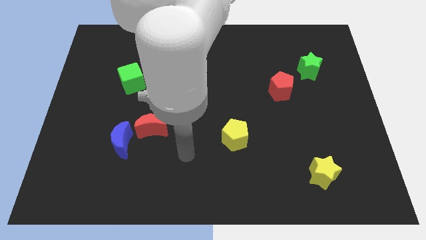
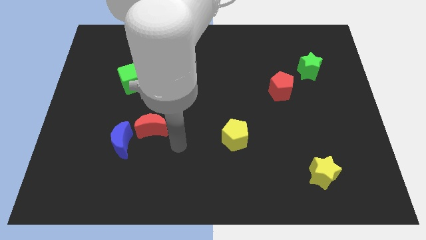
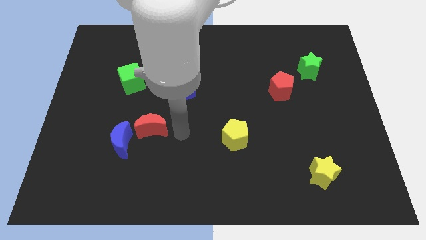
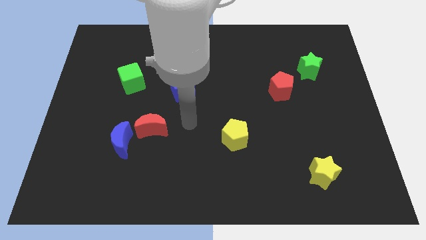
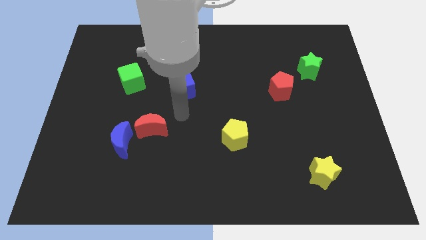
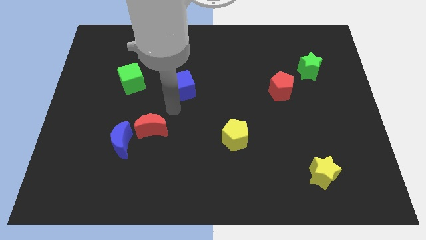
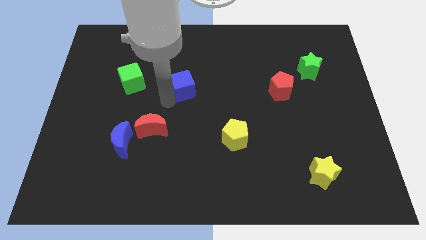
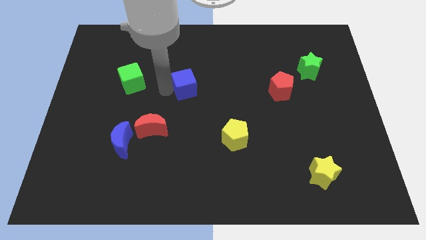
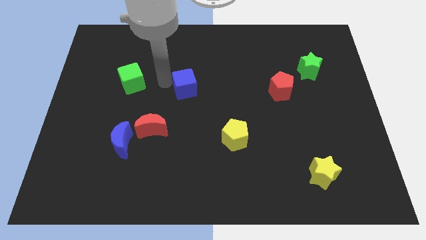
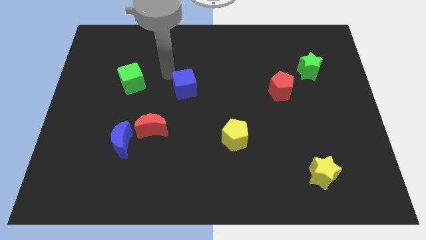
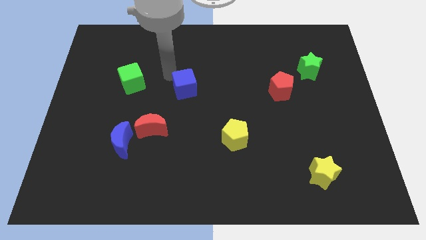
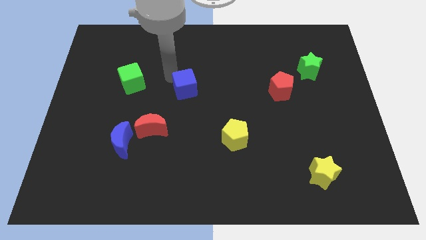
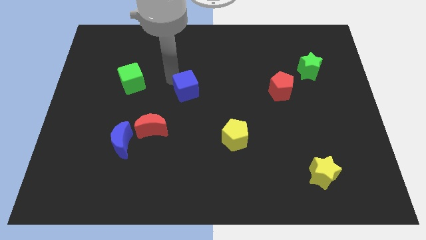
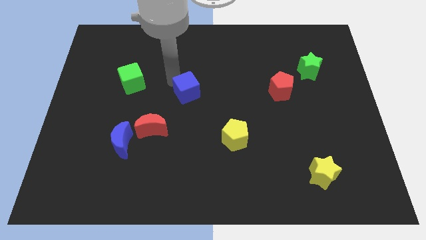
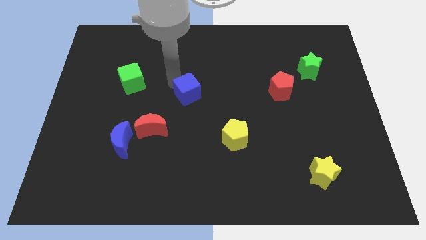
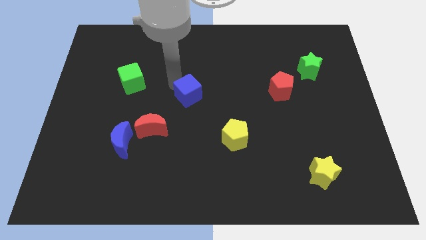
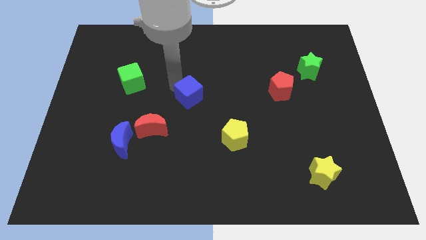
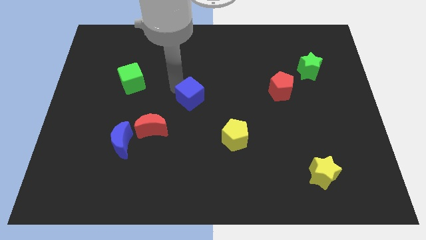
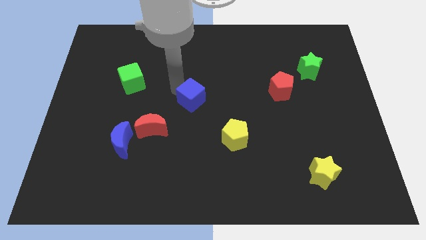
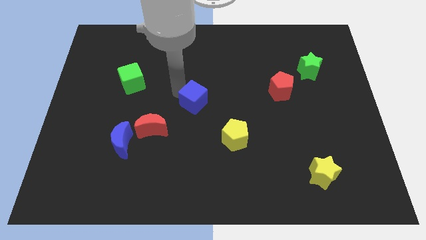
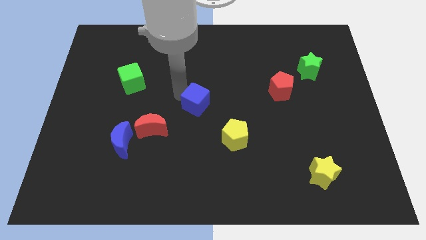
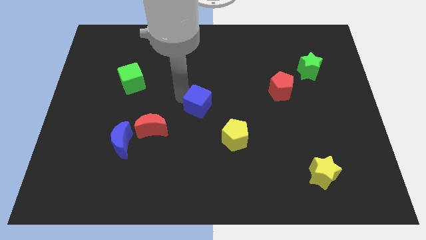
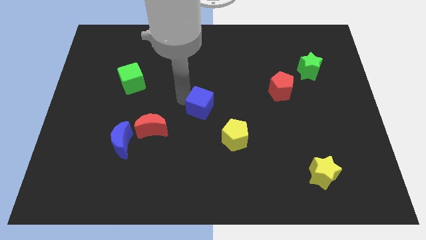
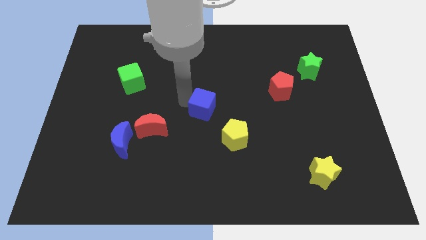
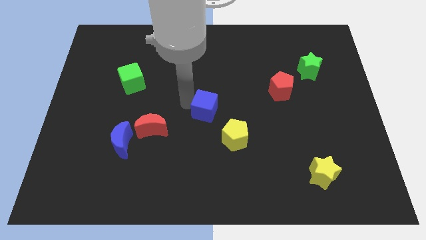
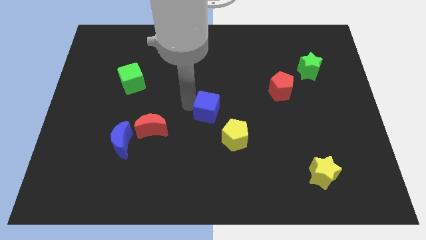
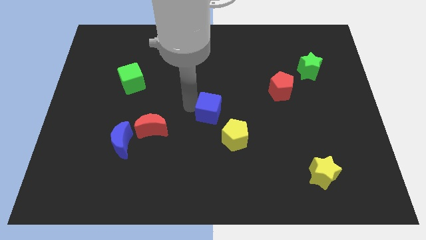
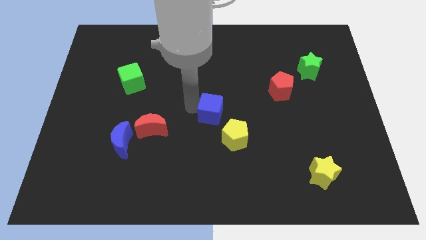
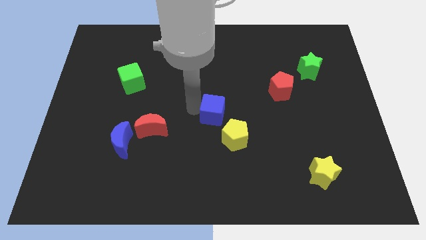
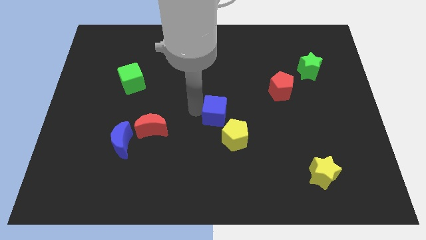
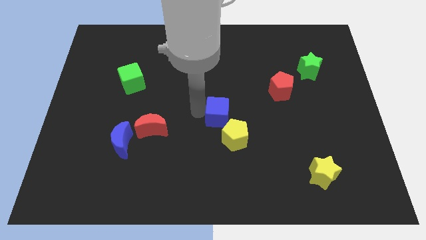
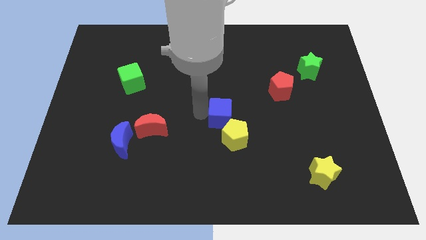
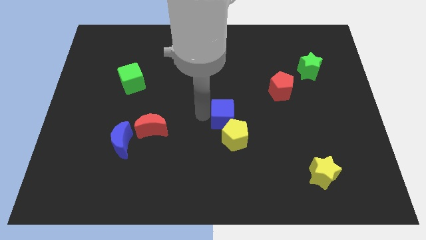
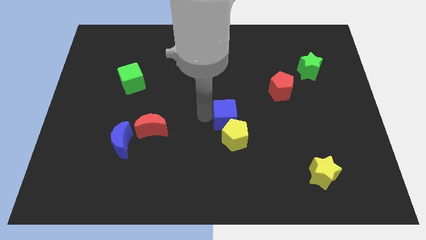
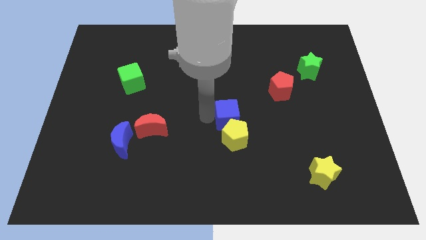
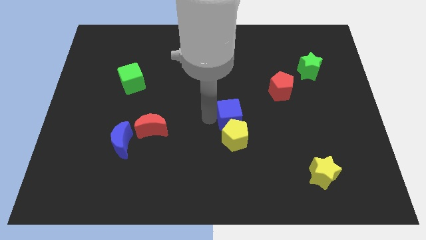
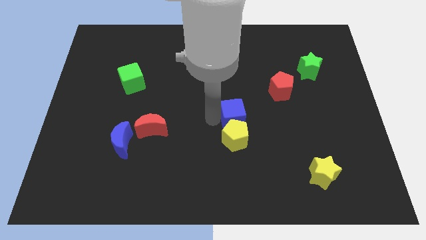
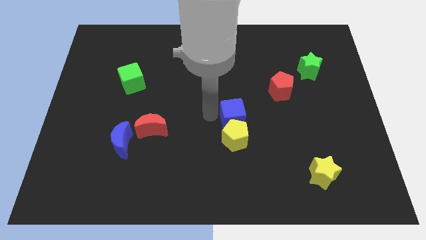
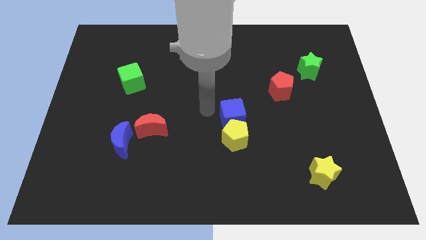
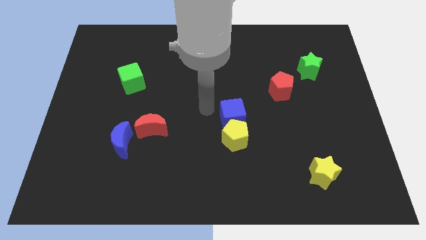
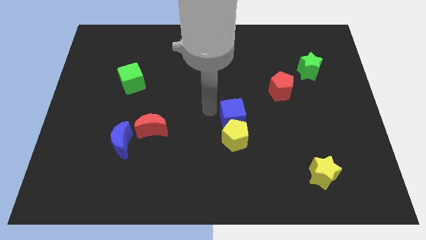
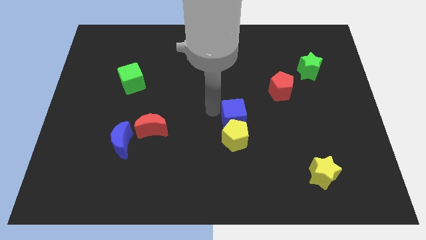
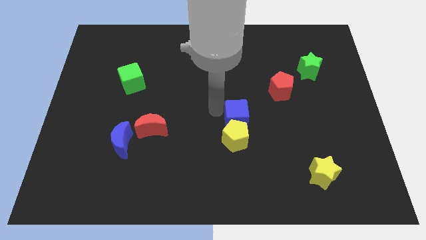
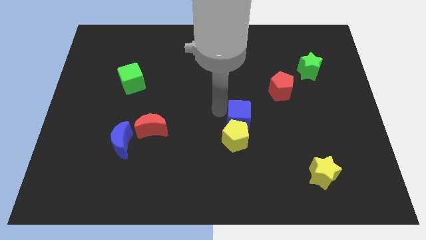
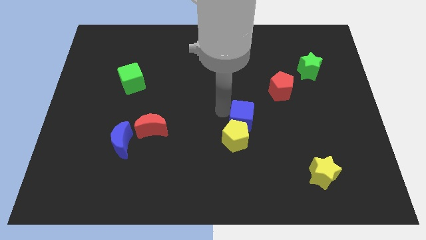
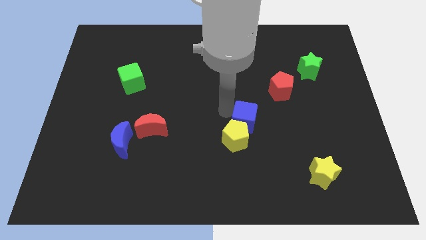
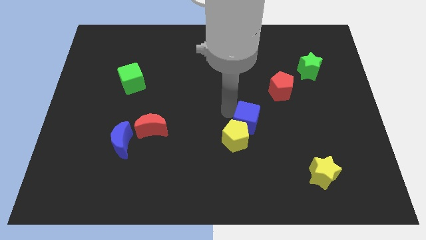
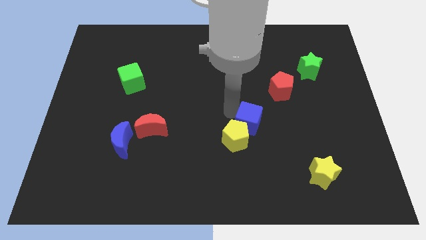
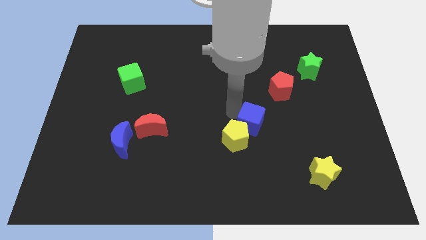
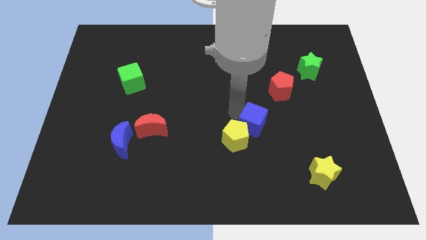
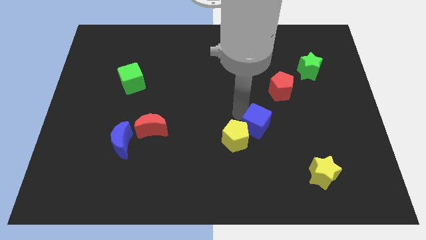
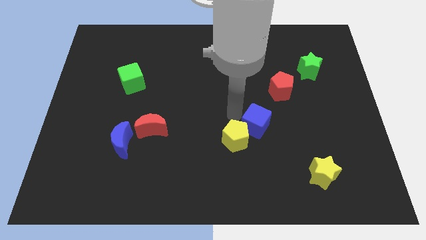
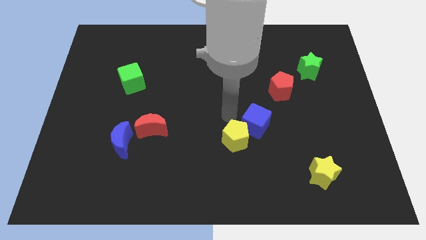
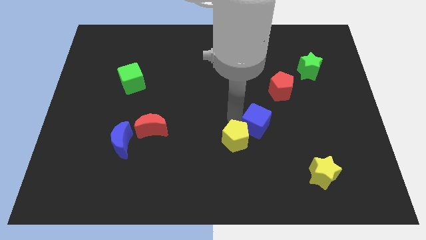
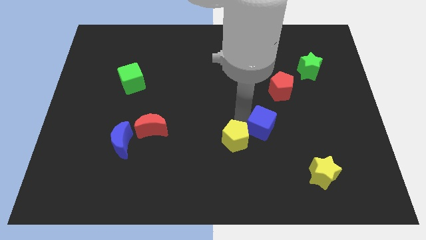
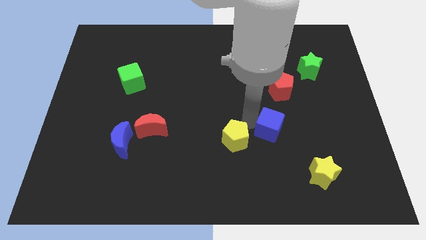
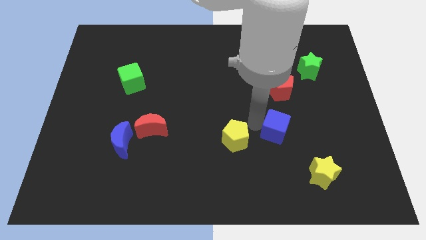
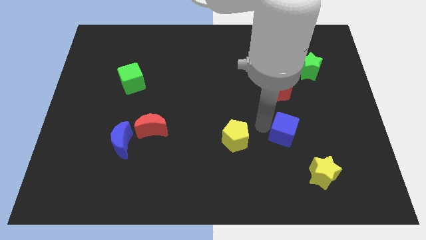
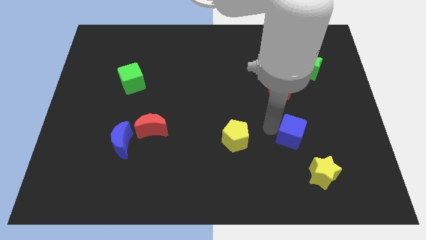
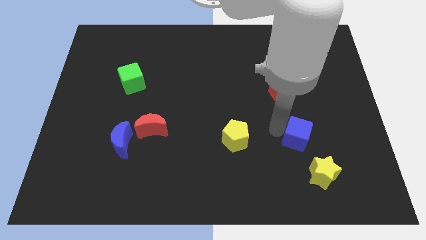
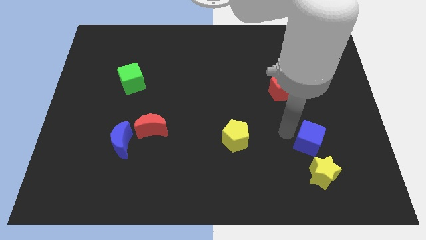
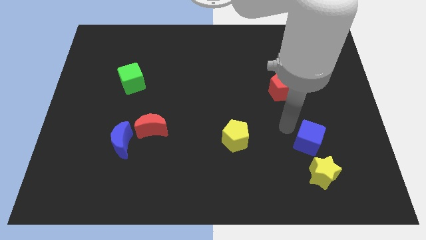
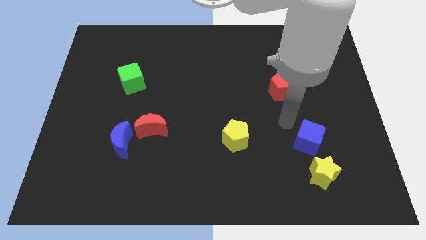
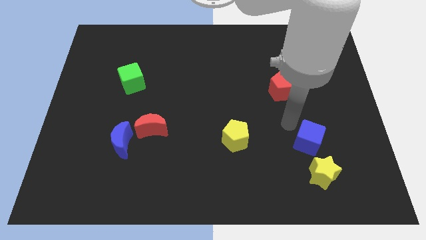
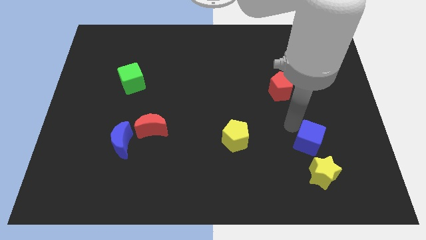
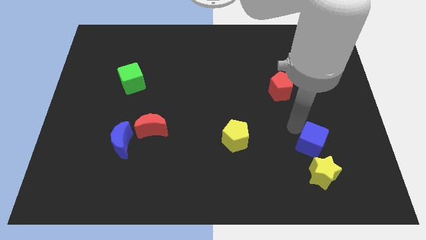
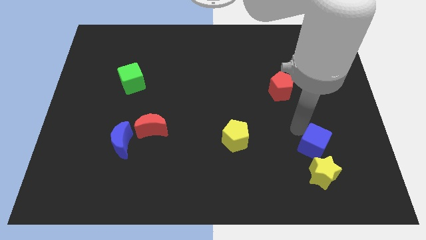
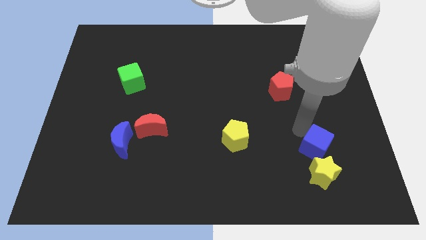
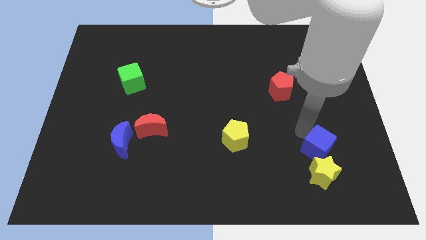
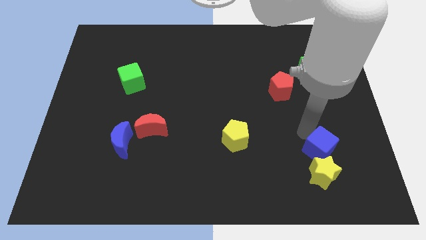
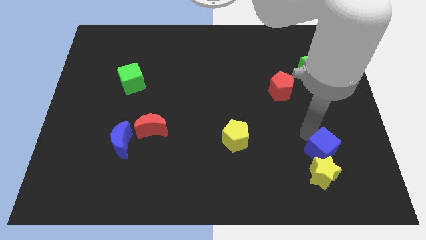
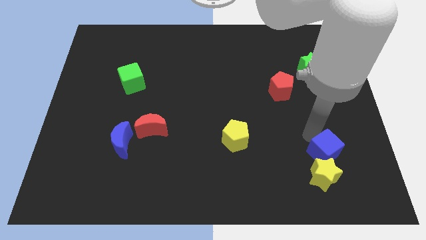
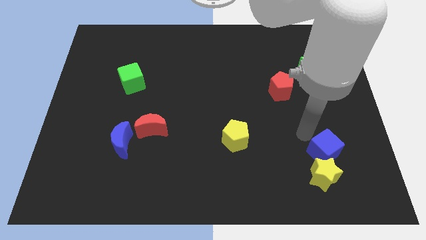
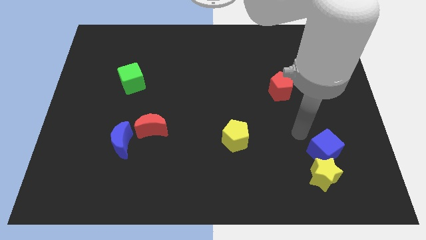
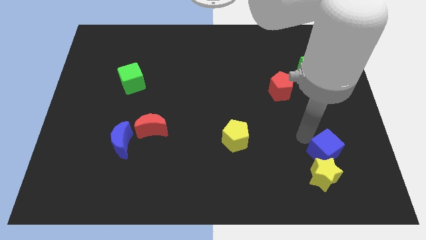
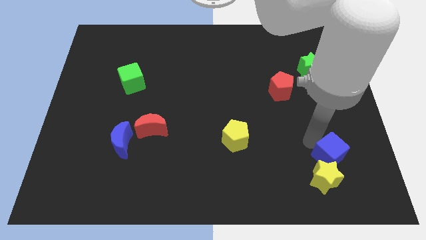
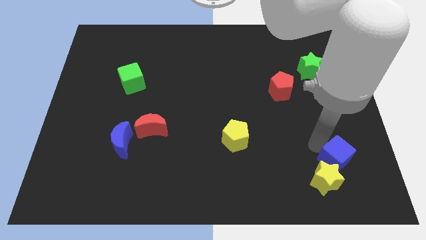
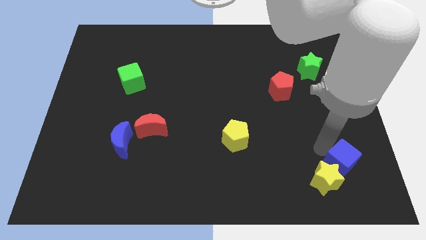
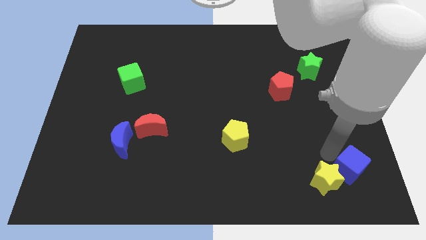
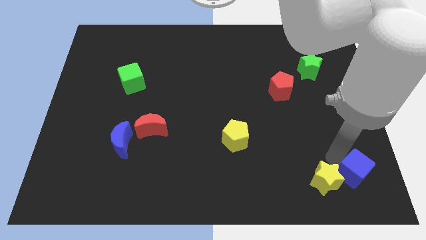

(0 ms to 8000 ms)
move the blue cube to the bottom right corner
